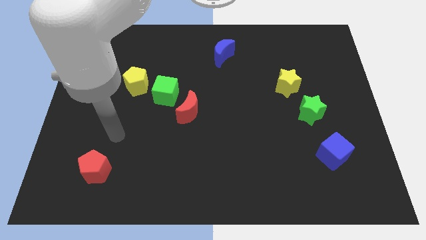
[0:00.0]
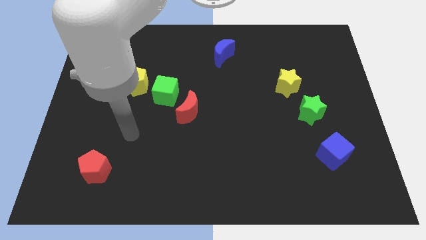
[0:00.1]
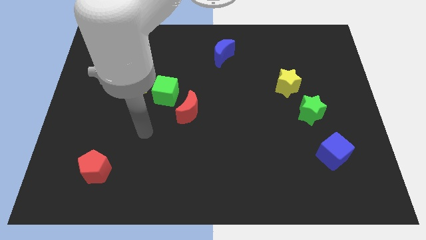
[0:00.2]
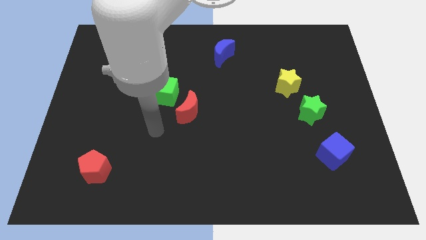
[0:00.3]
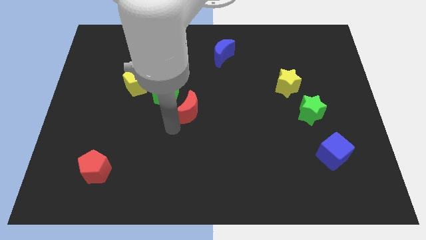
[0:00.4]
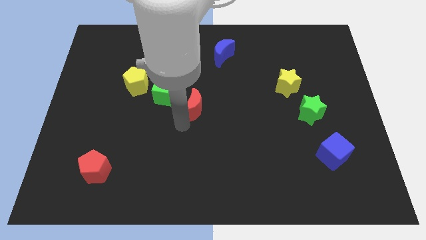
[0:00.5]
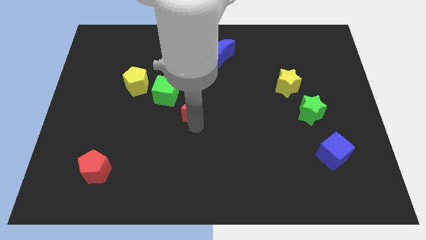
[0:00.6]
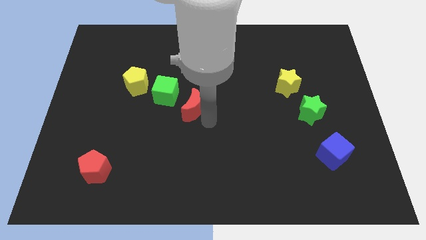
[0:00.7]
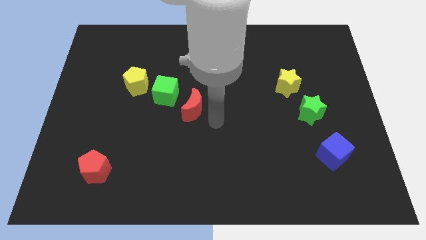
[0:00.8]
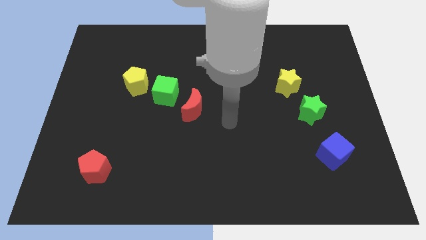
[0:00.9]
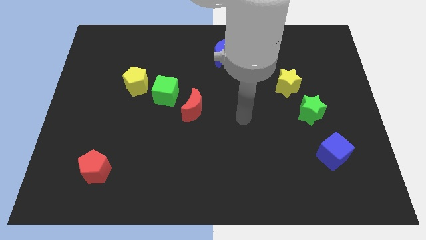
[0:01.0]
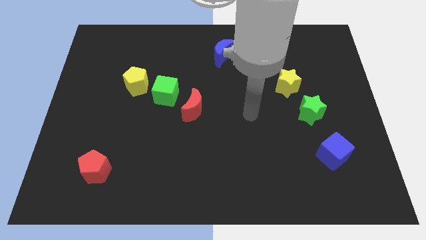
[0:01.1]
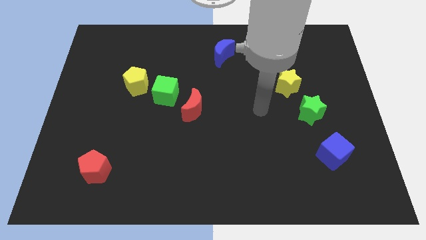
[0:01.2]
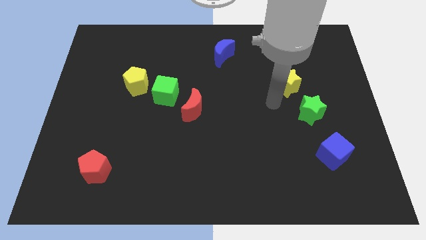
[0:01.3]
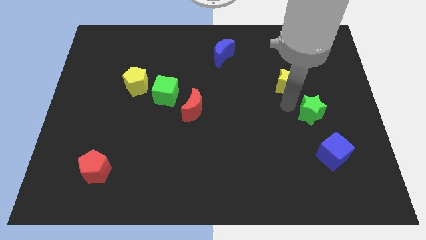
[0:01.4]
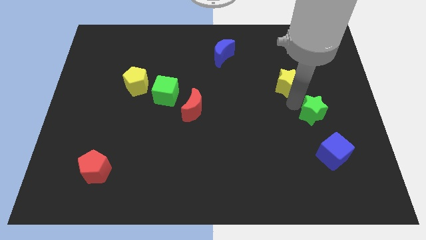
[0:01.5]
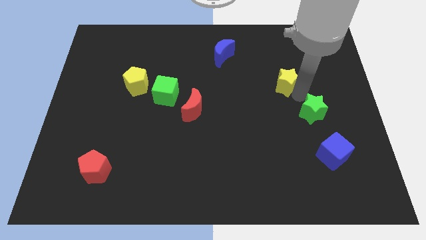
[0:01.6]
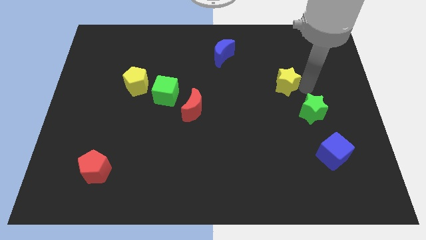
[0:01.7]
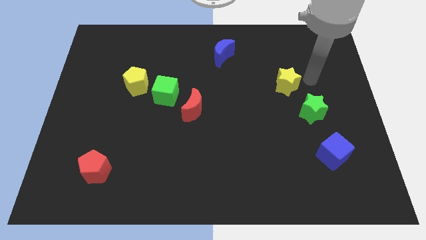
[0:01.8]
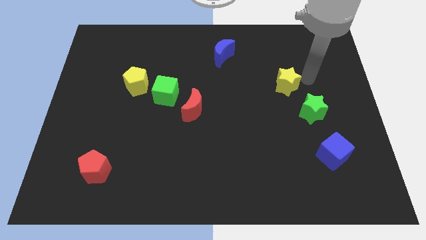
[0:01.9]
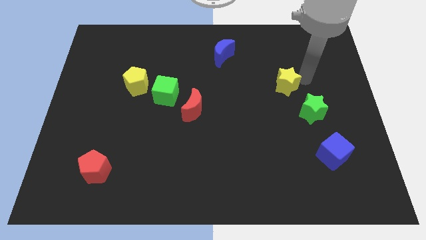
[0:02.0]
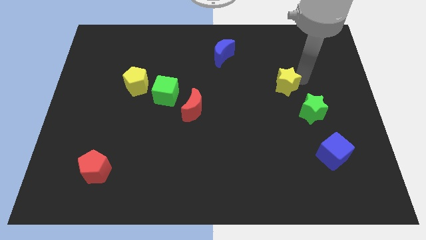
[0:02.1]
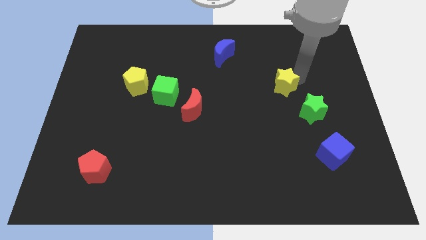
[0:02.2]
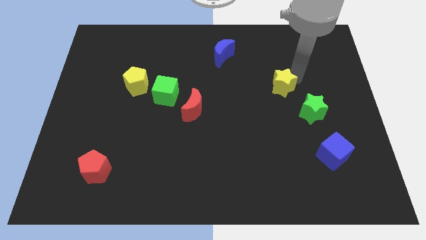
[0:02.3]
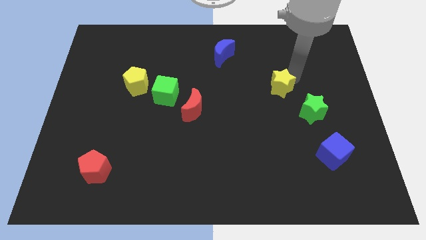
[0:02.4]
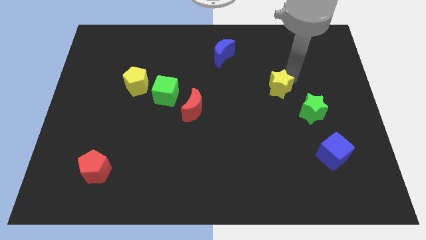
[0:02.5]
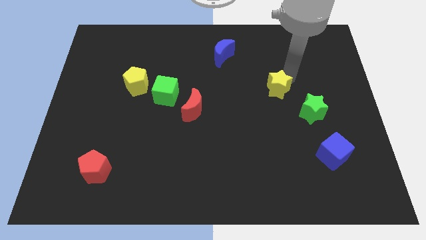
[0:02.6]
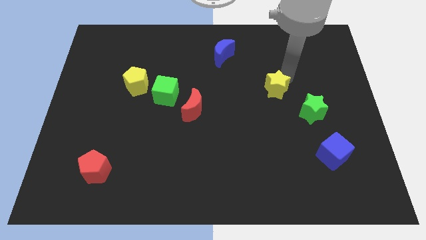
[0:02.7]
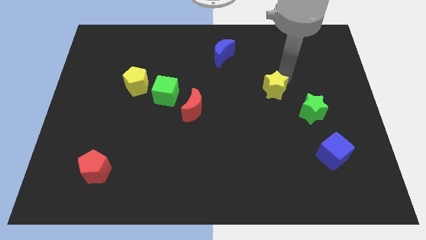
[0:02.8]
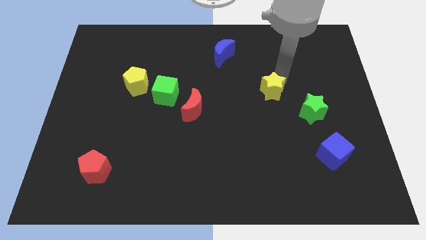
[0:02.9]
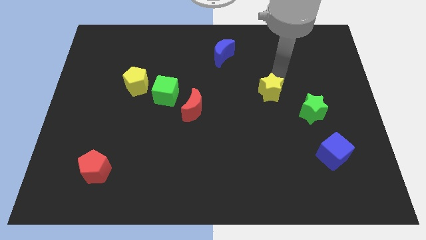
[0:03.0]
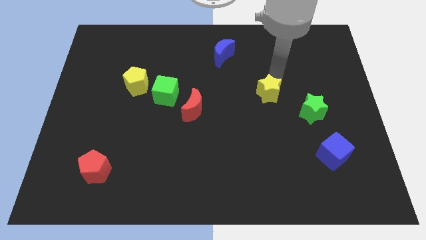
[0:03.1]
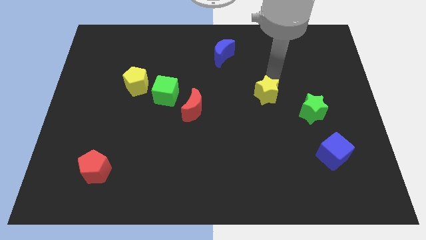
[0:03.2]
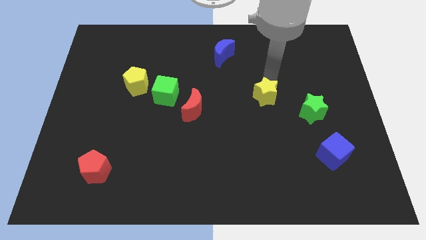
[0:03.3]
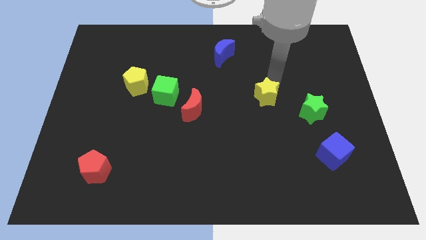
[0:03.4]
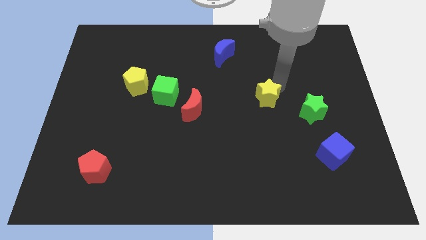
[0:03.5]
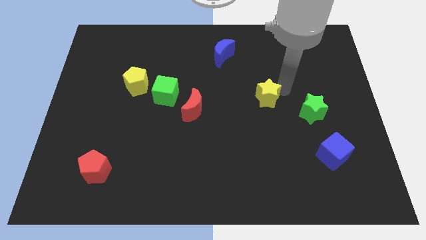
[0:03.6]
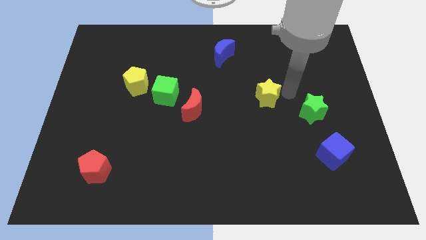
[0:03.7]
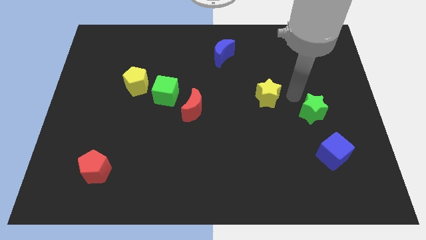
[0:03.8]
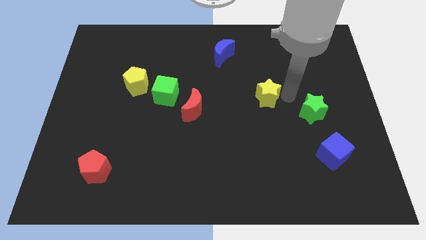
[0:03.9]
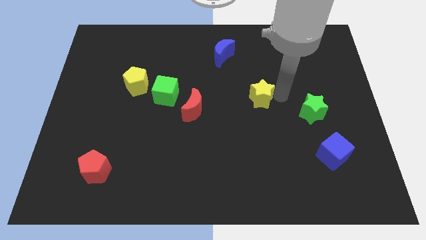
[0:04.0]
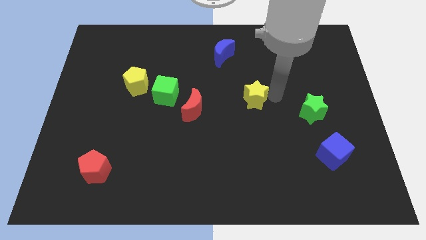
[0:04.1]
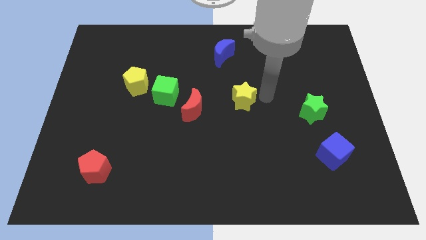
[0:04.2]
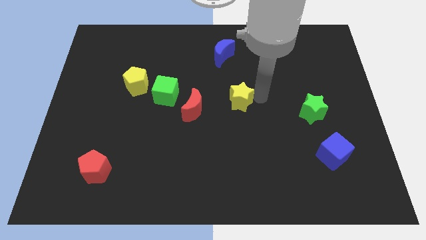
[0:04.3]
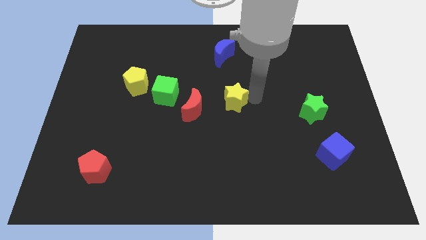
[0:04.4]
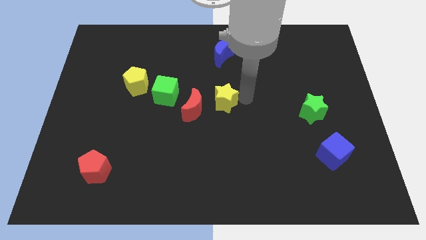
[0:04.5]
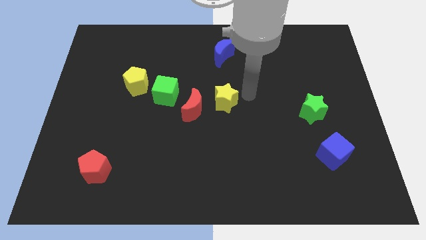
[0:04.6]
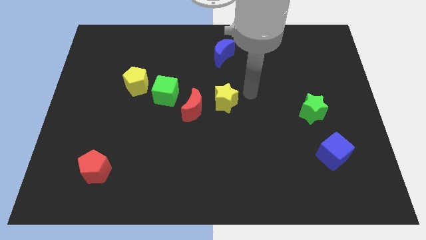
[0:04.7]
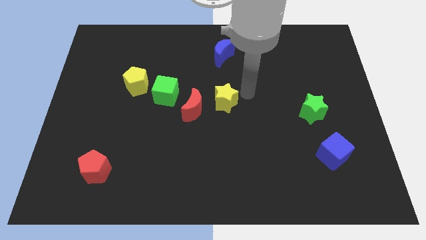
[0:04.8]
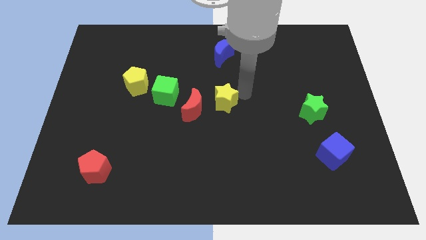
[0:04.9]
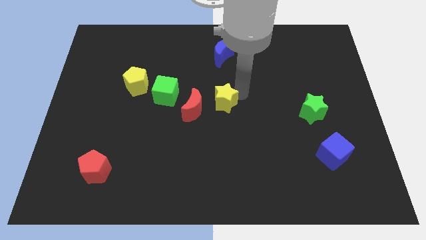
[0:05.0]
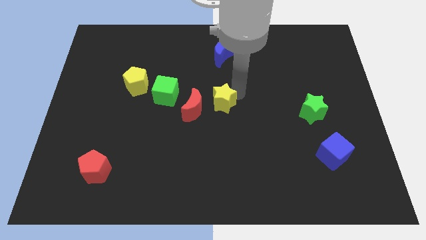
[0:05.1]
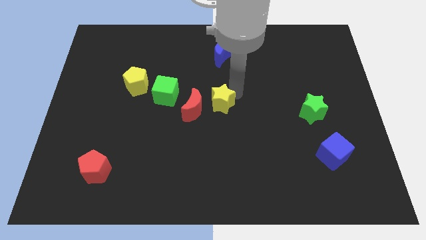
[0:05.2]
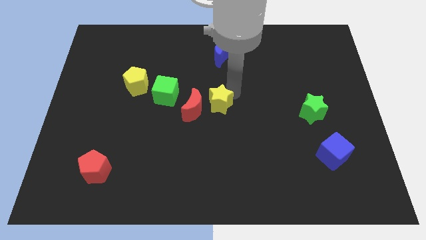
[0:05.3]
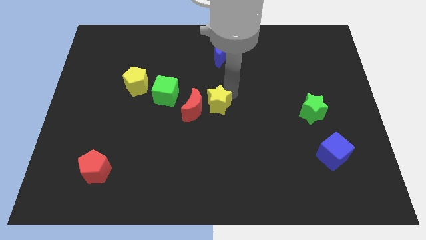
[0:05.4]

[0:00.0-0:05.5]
slide the yellow star close to the red moon

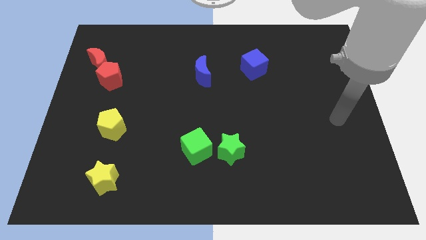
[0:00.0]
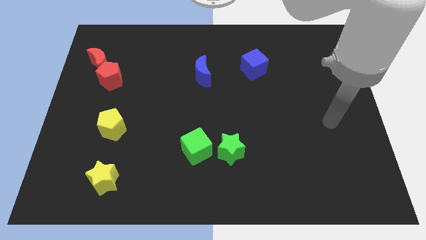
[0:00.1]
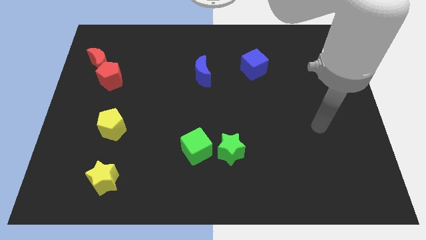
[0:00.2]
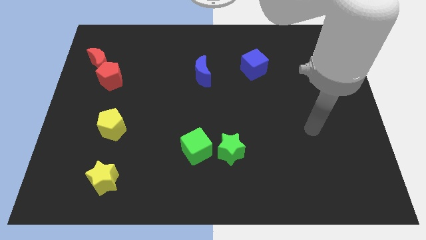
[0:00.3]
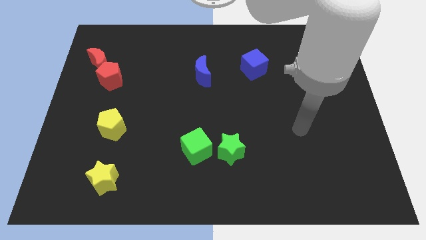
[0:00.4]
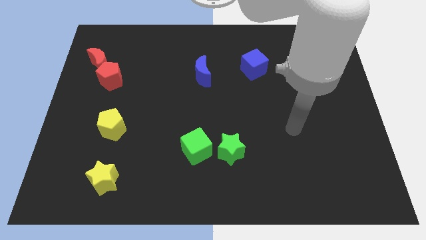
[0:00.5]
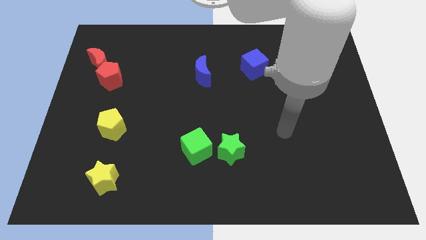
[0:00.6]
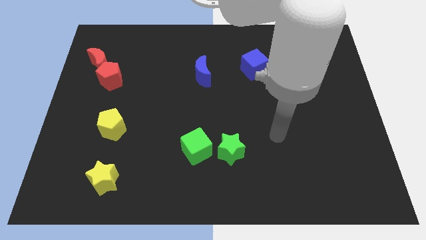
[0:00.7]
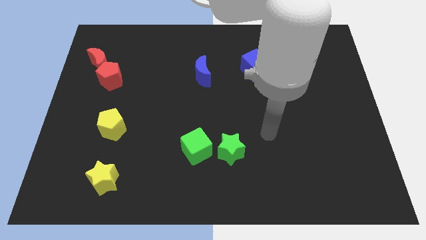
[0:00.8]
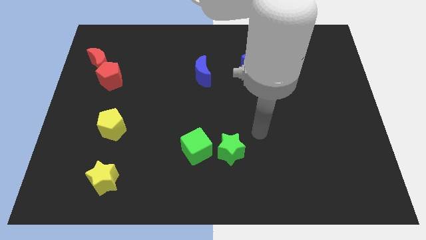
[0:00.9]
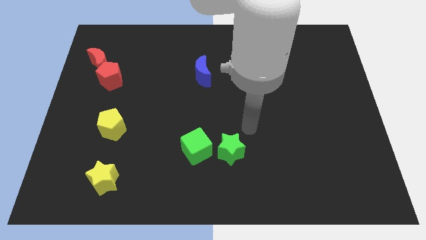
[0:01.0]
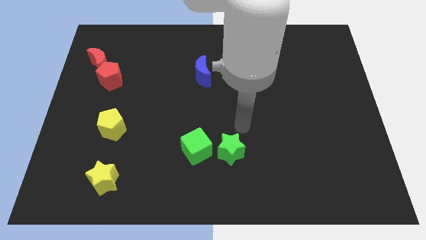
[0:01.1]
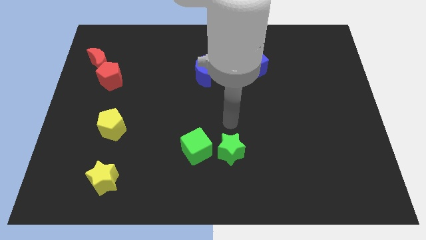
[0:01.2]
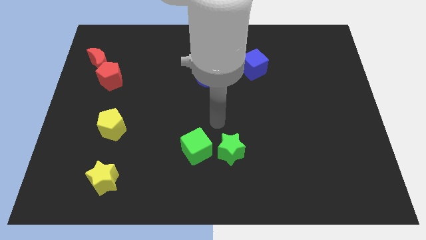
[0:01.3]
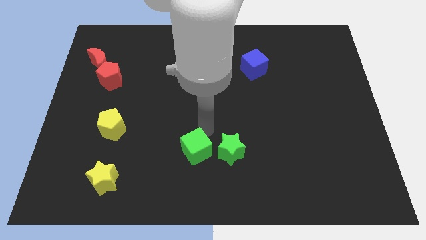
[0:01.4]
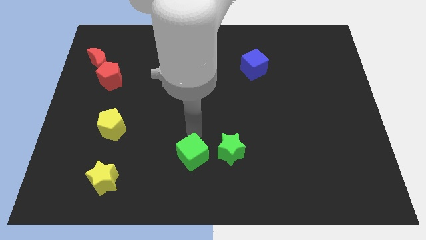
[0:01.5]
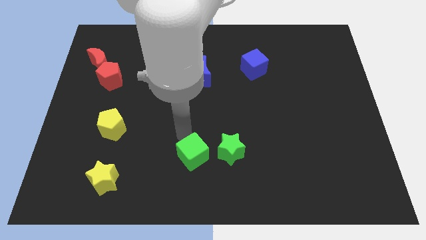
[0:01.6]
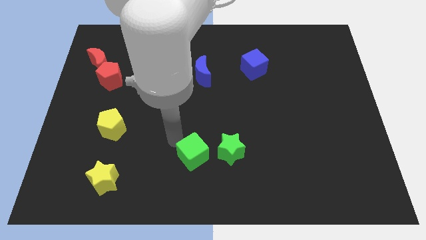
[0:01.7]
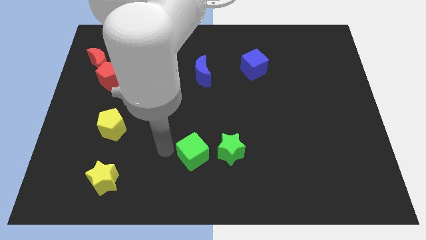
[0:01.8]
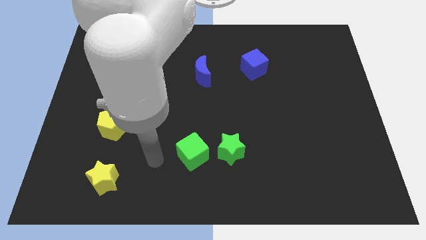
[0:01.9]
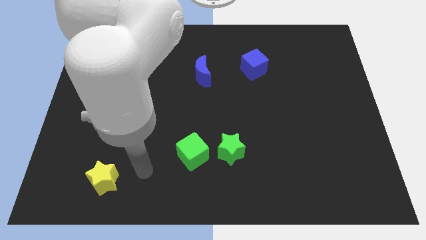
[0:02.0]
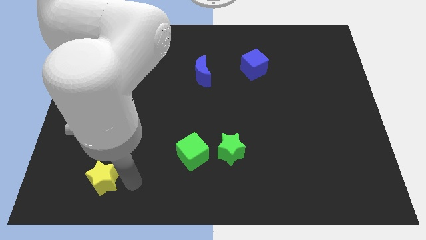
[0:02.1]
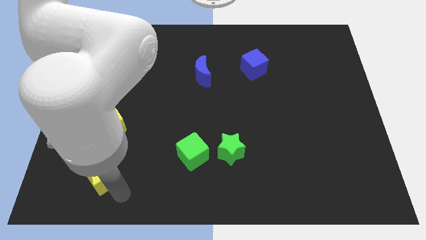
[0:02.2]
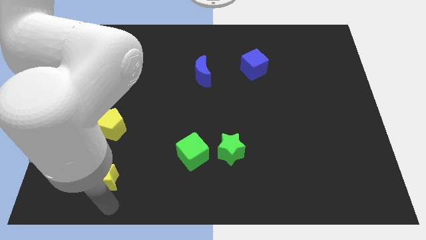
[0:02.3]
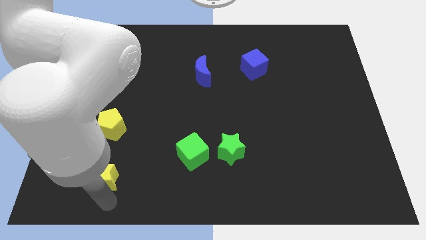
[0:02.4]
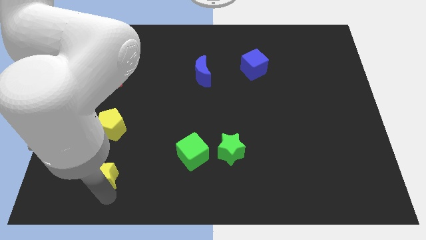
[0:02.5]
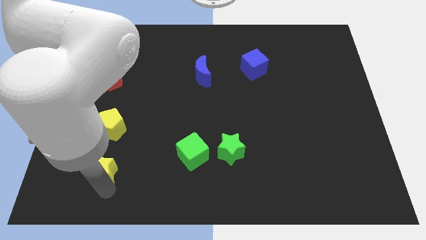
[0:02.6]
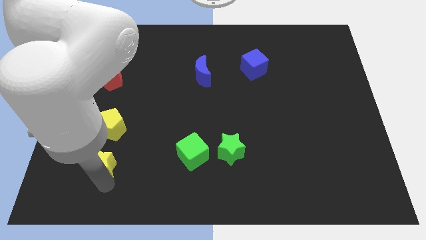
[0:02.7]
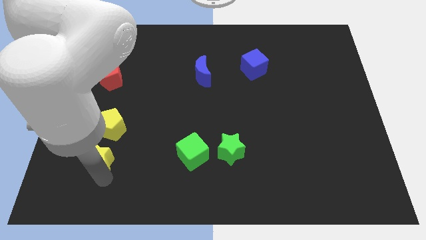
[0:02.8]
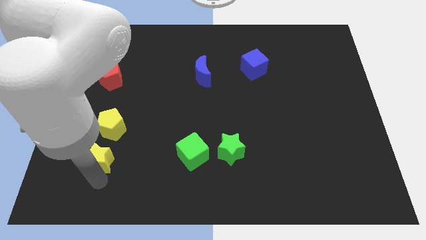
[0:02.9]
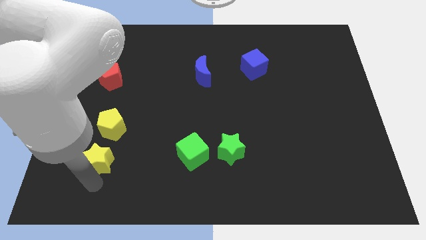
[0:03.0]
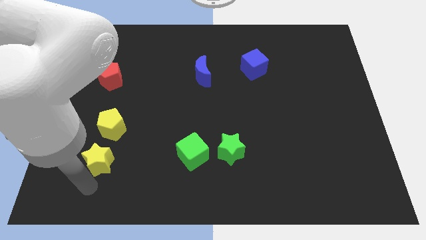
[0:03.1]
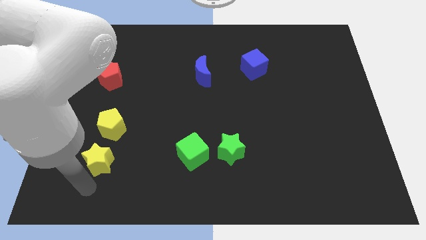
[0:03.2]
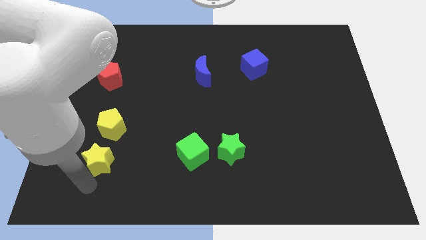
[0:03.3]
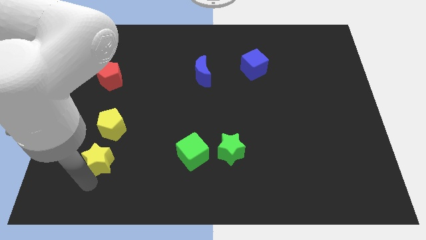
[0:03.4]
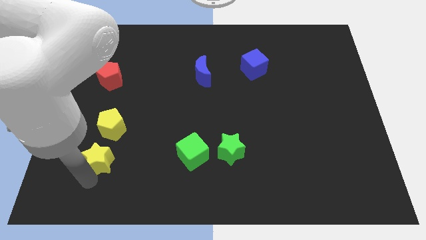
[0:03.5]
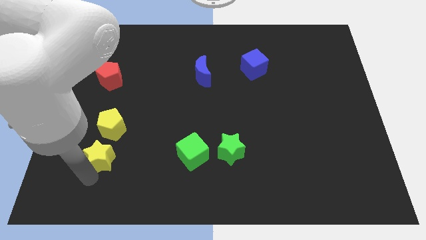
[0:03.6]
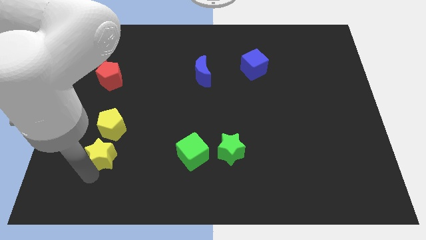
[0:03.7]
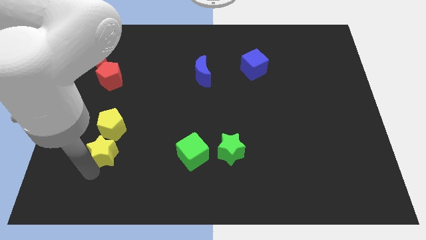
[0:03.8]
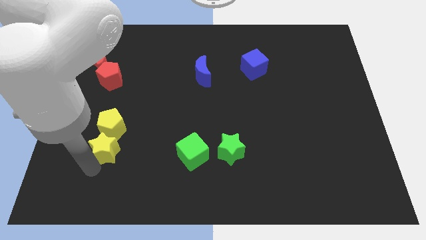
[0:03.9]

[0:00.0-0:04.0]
slide the yellow star close to the yellow pentagon
